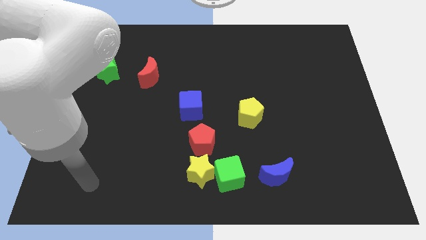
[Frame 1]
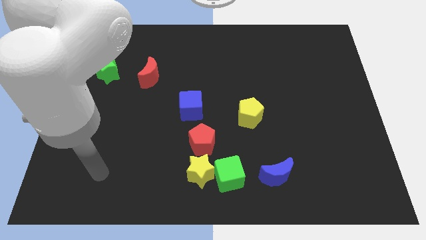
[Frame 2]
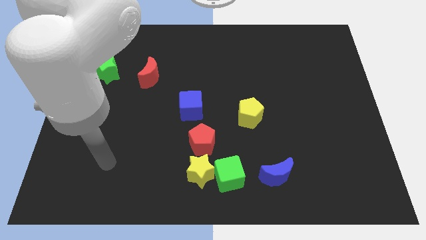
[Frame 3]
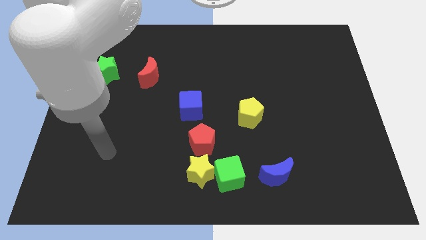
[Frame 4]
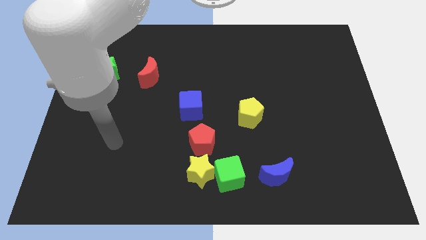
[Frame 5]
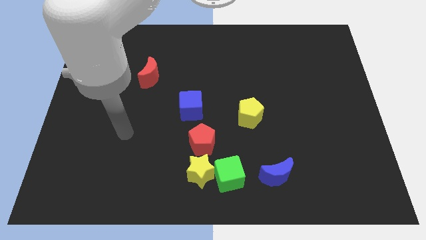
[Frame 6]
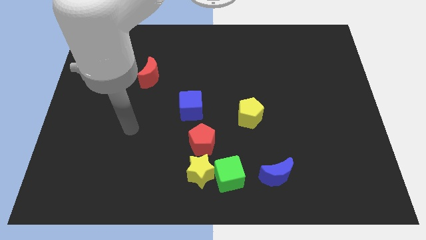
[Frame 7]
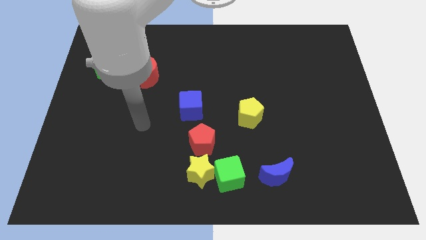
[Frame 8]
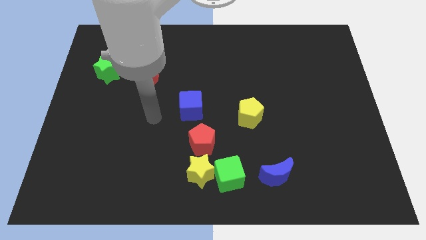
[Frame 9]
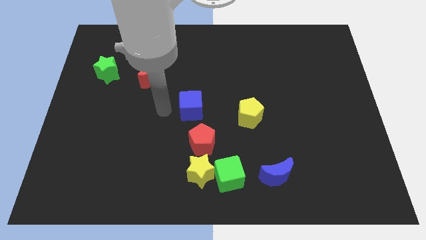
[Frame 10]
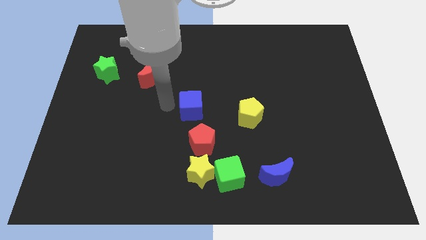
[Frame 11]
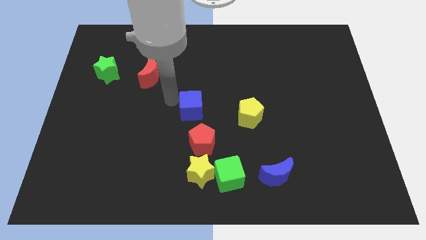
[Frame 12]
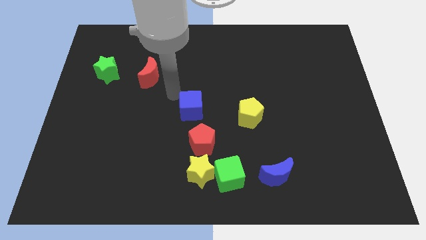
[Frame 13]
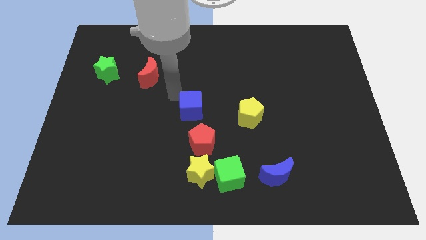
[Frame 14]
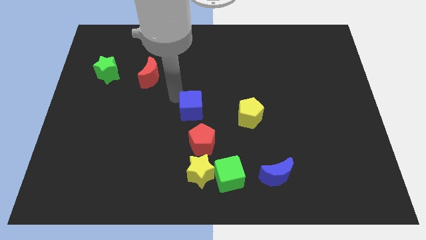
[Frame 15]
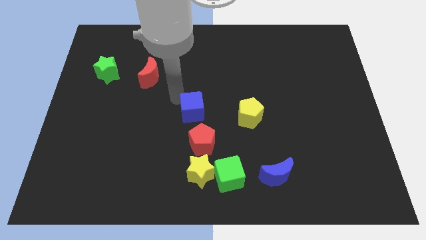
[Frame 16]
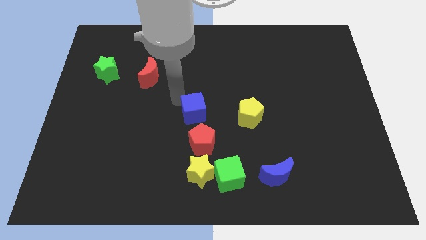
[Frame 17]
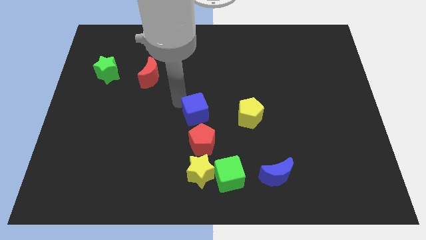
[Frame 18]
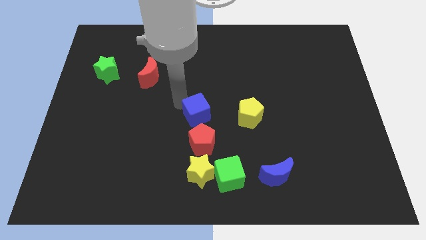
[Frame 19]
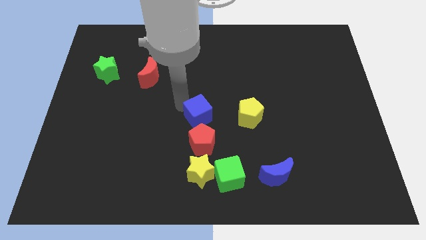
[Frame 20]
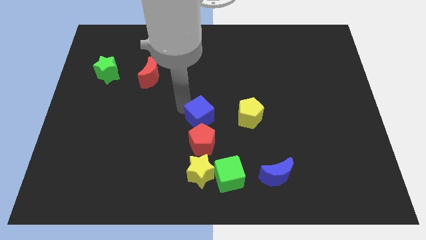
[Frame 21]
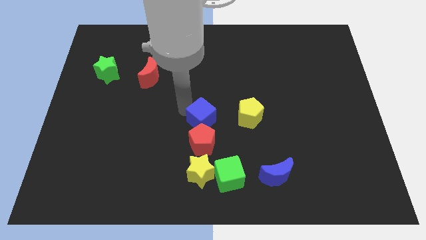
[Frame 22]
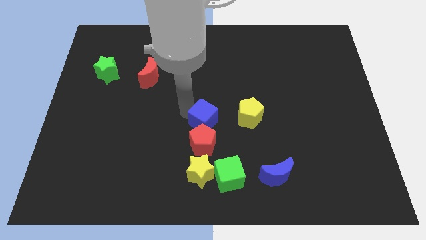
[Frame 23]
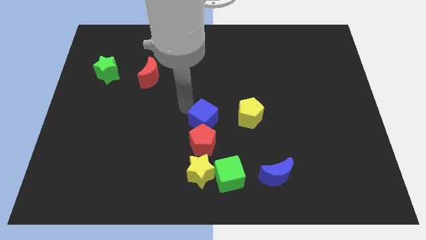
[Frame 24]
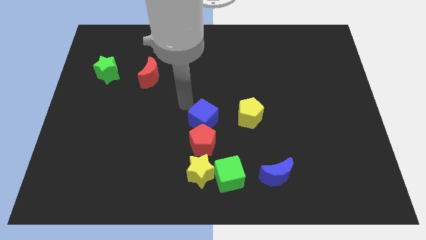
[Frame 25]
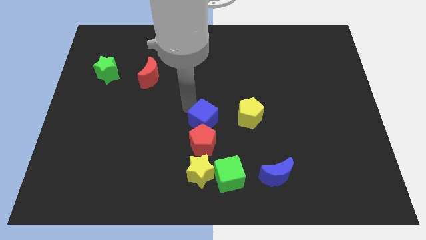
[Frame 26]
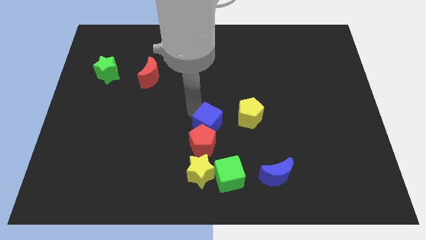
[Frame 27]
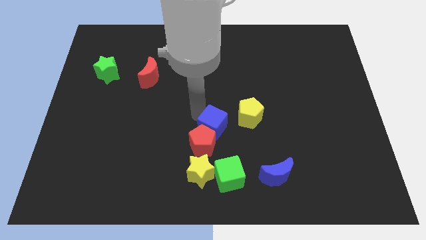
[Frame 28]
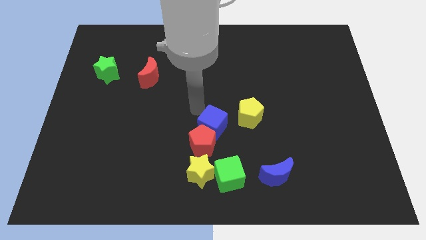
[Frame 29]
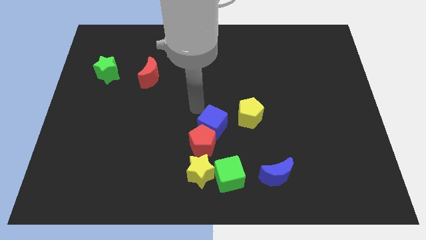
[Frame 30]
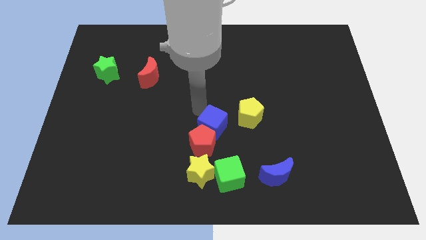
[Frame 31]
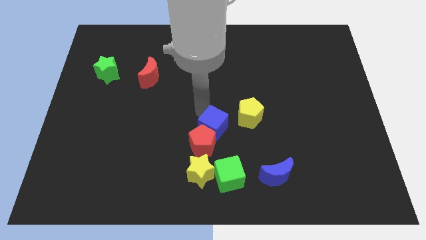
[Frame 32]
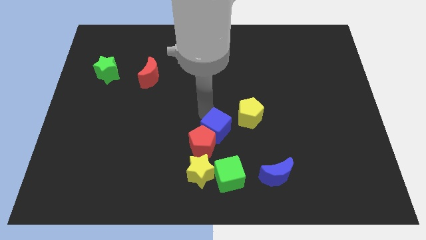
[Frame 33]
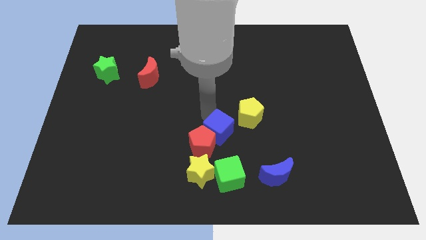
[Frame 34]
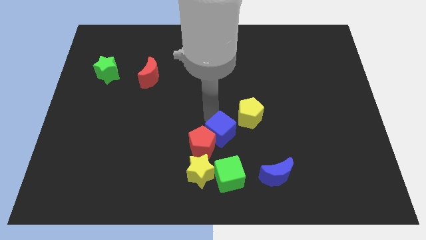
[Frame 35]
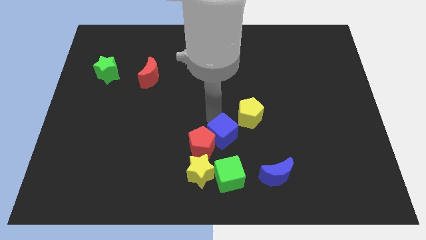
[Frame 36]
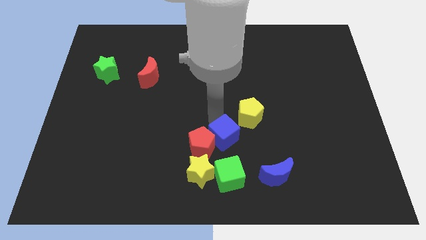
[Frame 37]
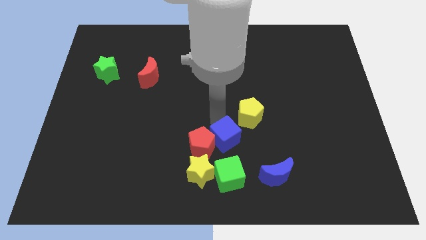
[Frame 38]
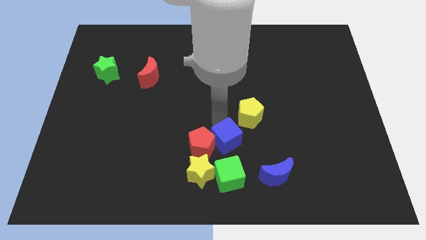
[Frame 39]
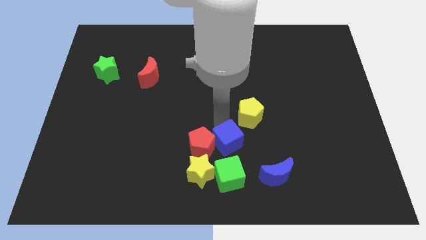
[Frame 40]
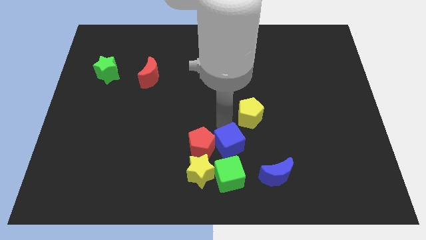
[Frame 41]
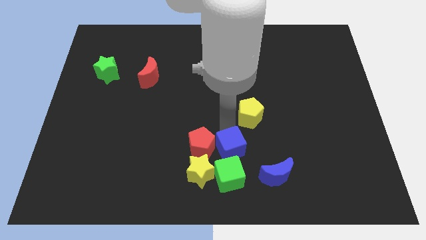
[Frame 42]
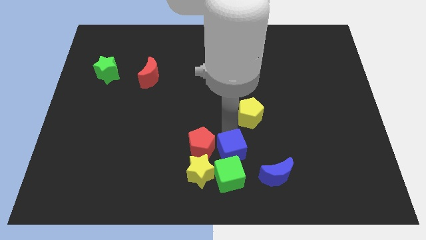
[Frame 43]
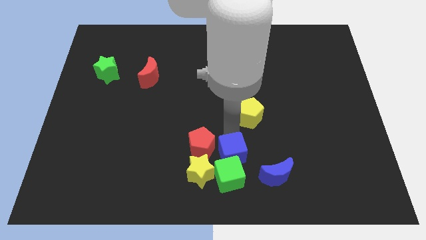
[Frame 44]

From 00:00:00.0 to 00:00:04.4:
put the blue cube next to the green cube

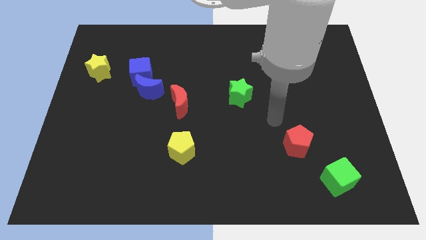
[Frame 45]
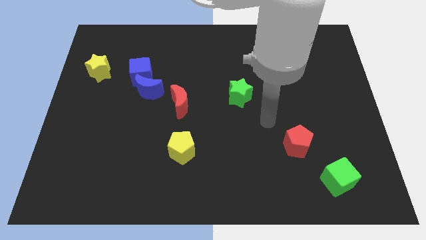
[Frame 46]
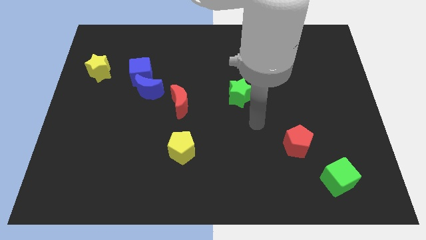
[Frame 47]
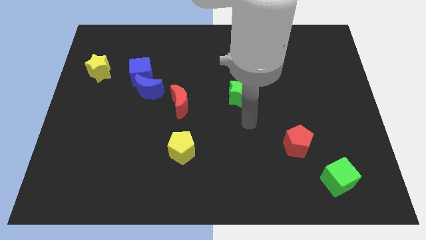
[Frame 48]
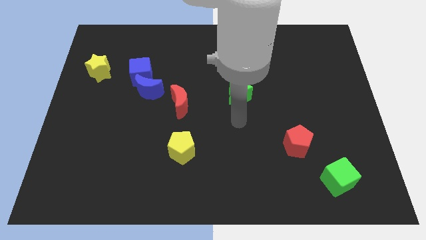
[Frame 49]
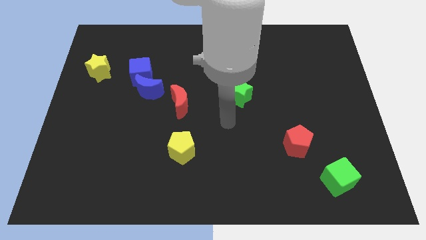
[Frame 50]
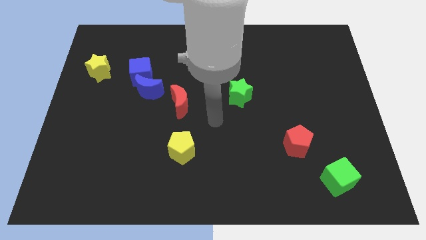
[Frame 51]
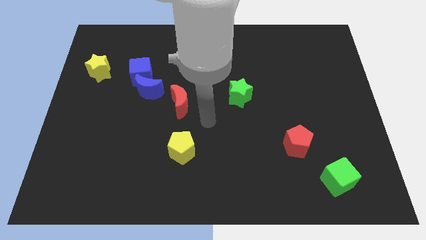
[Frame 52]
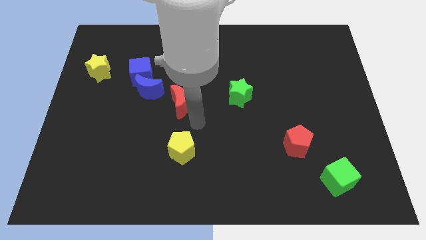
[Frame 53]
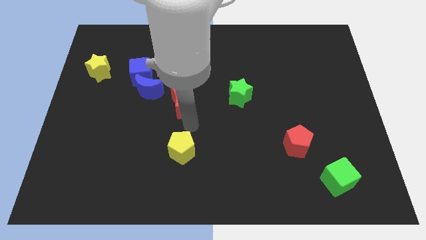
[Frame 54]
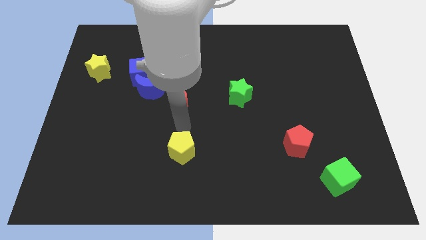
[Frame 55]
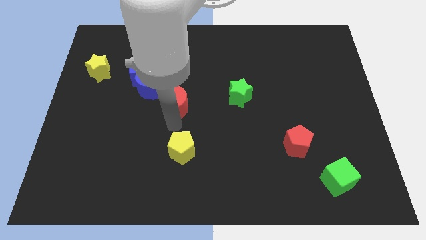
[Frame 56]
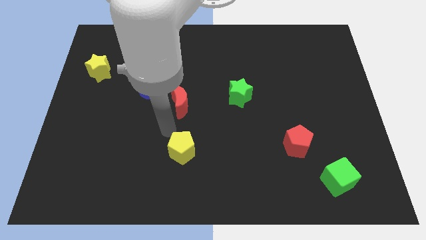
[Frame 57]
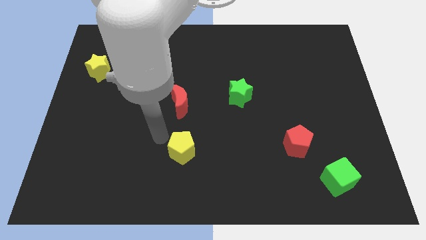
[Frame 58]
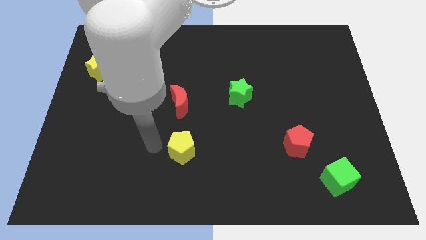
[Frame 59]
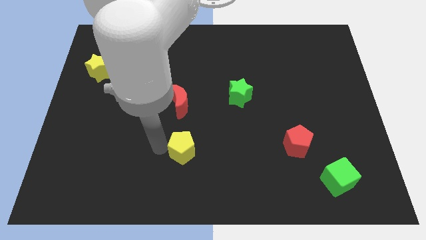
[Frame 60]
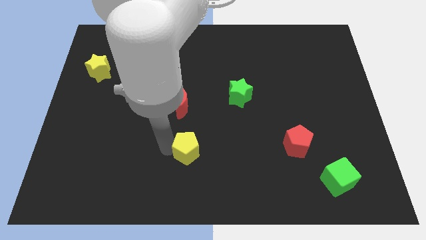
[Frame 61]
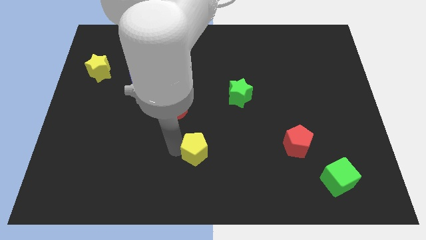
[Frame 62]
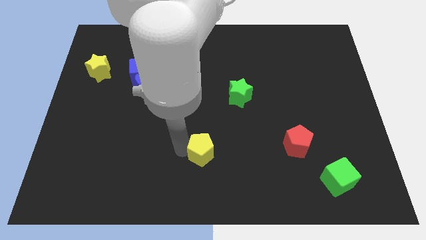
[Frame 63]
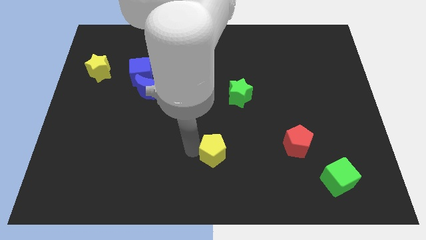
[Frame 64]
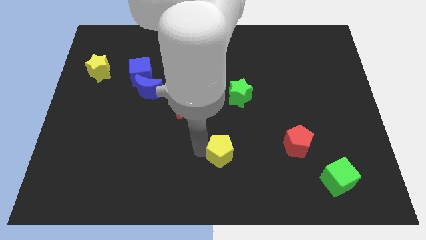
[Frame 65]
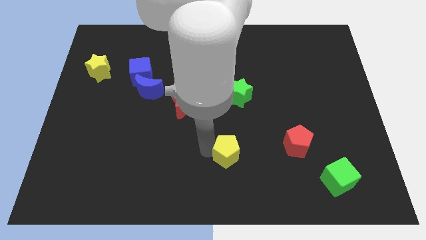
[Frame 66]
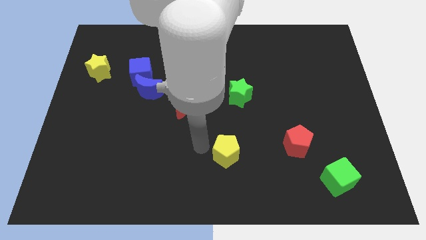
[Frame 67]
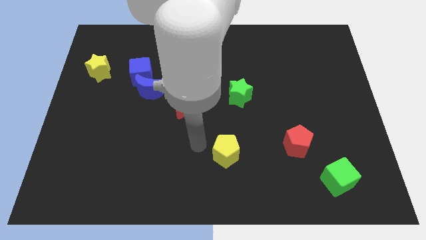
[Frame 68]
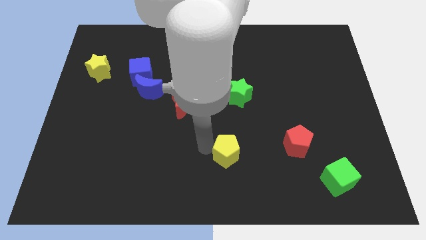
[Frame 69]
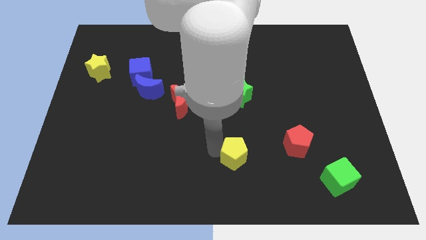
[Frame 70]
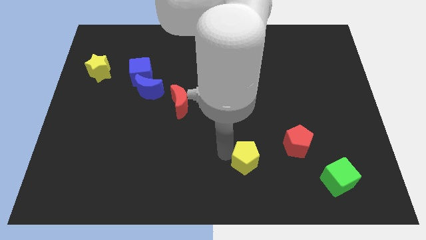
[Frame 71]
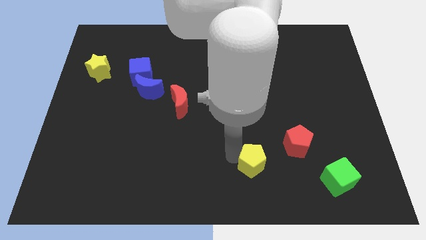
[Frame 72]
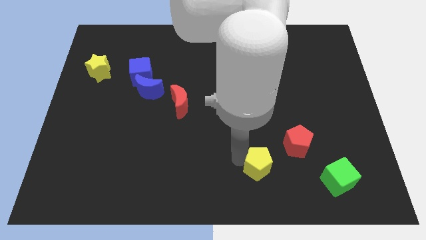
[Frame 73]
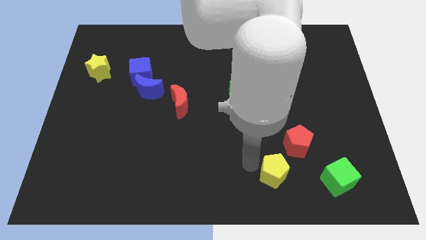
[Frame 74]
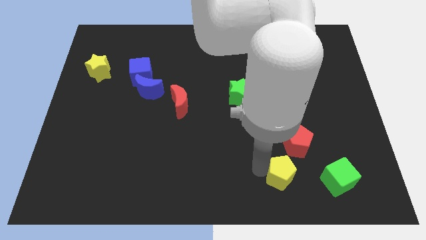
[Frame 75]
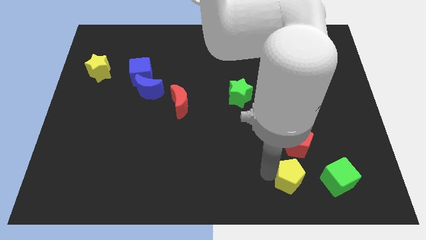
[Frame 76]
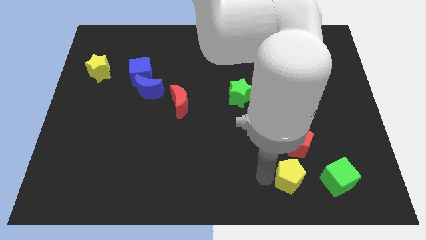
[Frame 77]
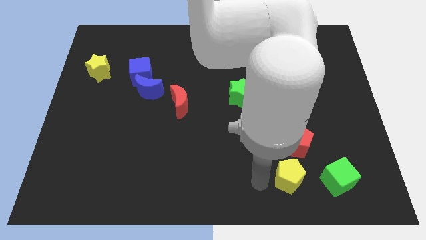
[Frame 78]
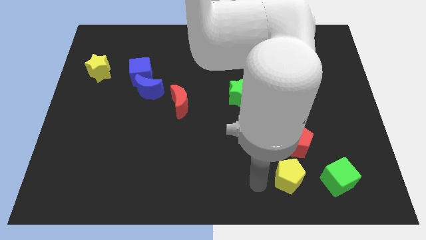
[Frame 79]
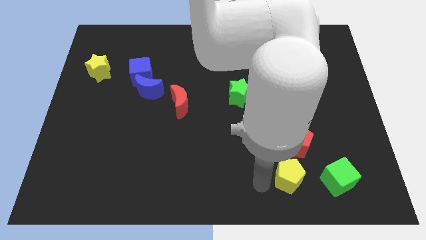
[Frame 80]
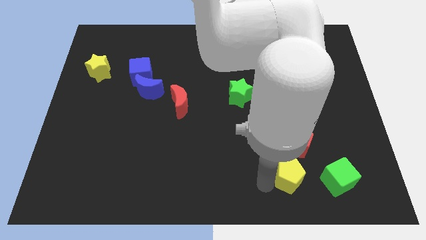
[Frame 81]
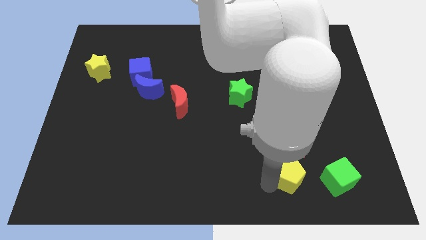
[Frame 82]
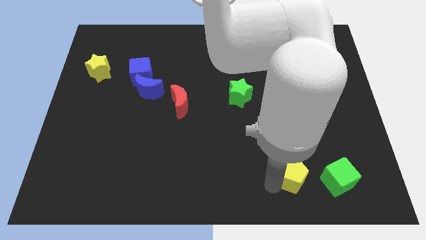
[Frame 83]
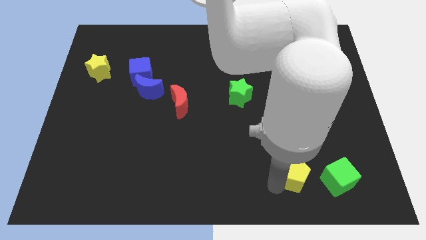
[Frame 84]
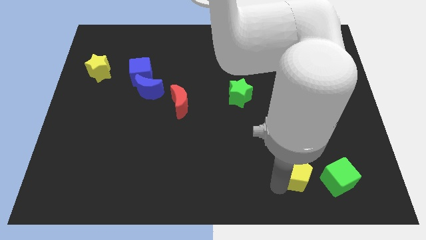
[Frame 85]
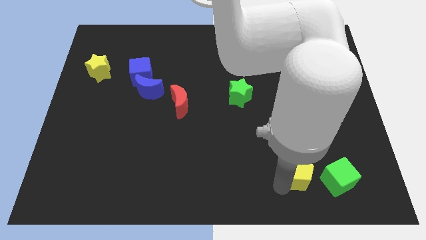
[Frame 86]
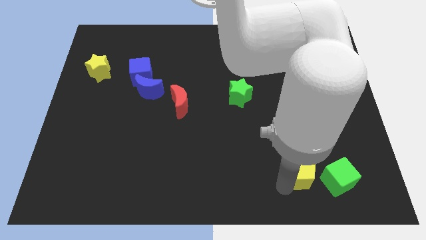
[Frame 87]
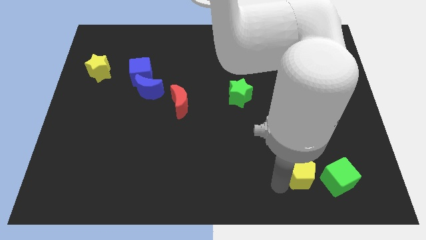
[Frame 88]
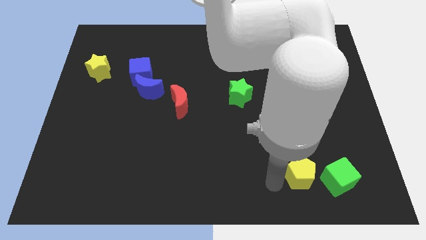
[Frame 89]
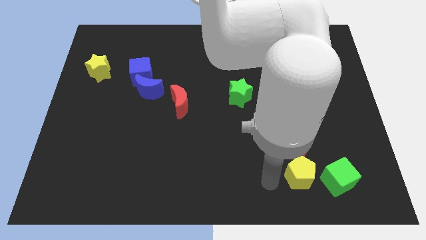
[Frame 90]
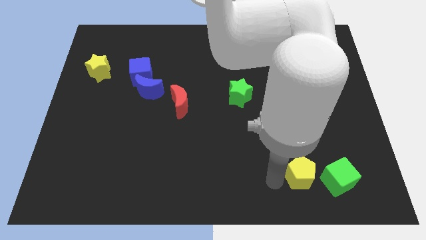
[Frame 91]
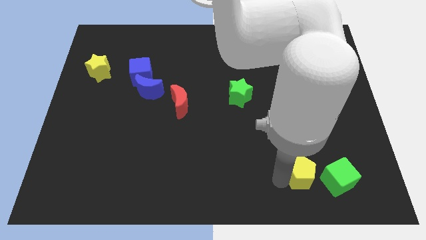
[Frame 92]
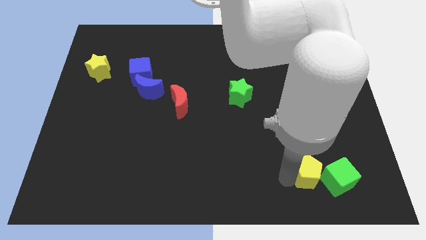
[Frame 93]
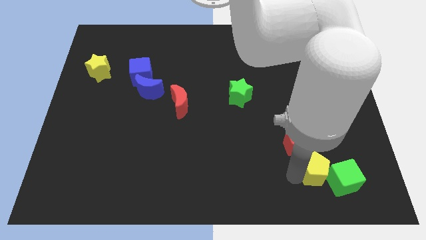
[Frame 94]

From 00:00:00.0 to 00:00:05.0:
put the yellow pentagon towards the green cube
